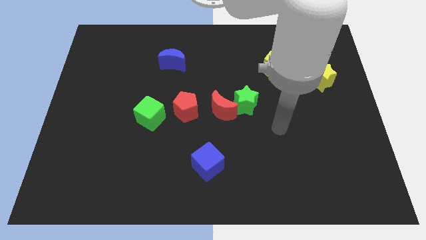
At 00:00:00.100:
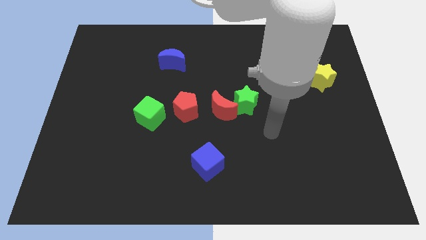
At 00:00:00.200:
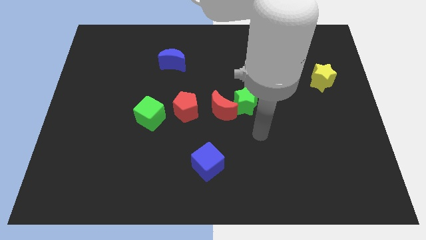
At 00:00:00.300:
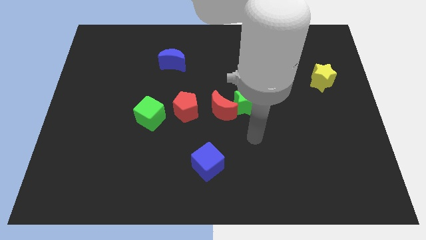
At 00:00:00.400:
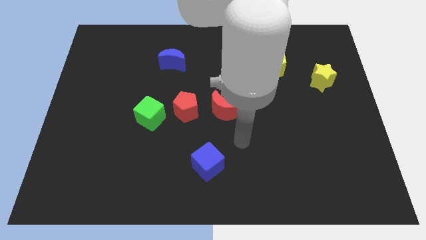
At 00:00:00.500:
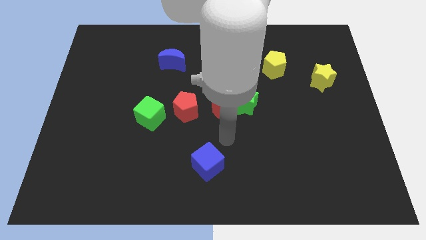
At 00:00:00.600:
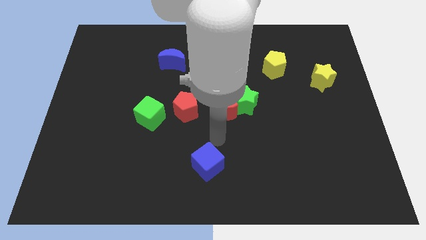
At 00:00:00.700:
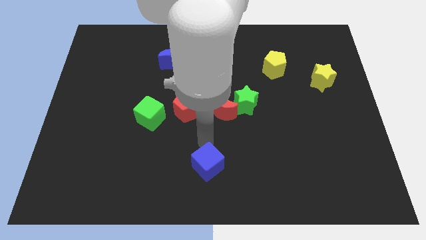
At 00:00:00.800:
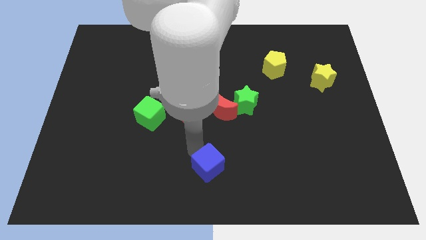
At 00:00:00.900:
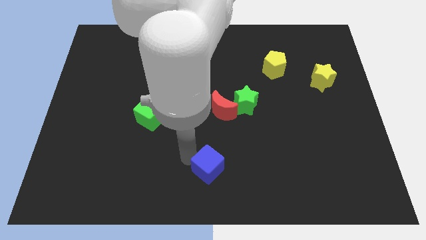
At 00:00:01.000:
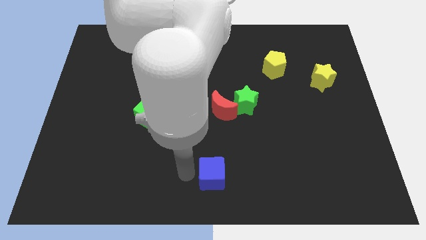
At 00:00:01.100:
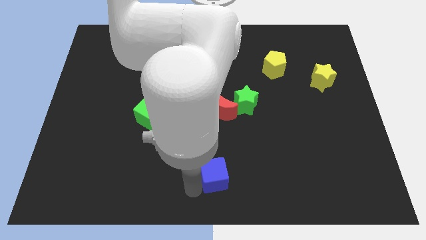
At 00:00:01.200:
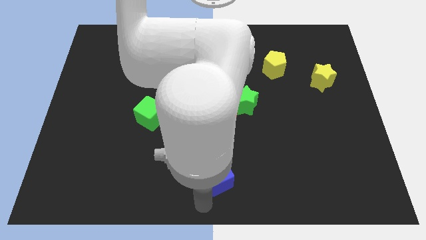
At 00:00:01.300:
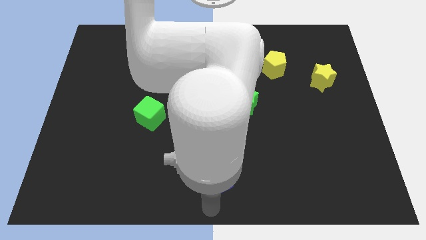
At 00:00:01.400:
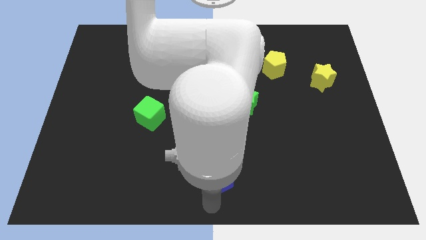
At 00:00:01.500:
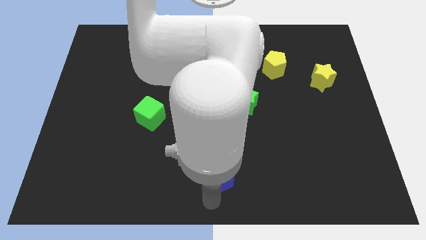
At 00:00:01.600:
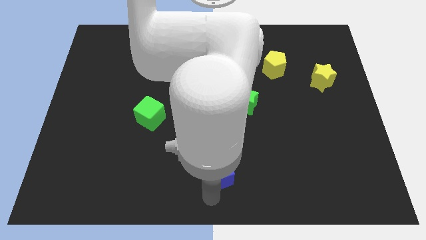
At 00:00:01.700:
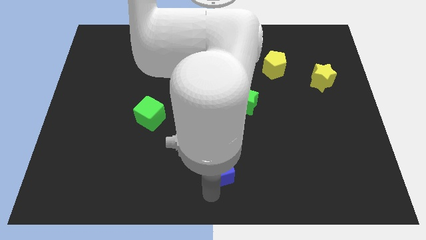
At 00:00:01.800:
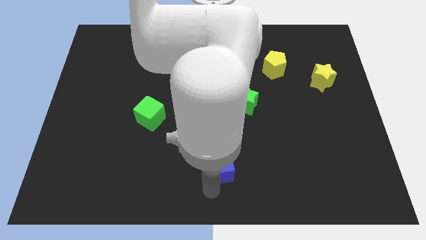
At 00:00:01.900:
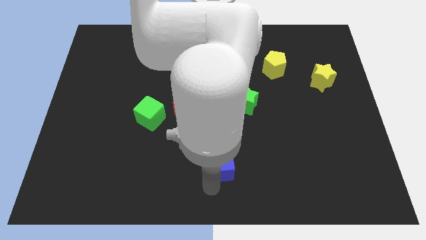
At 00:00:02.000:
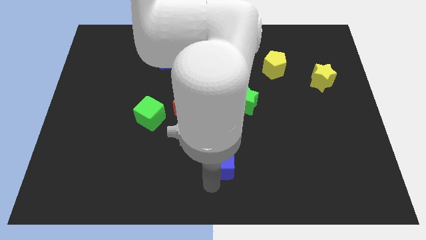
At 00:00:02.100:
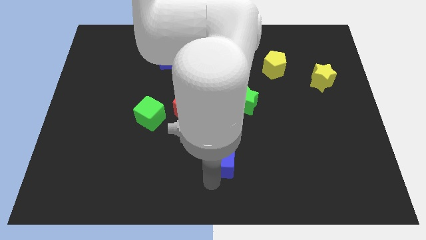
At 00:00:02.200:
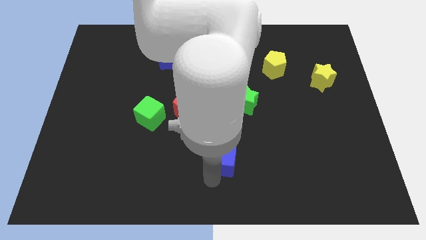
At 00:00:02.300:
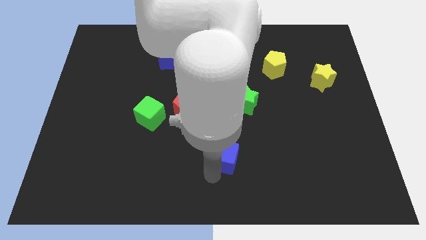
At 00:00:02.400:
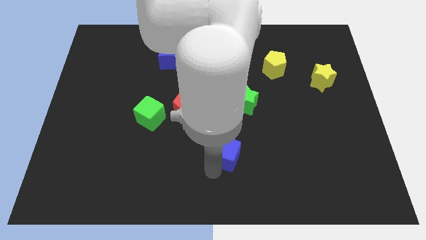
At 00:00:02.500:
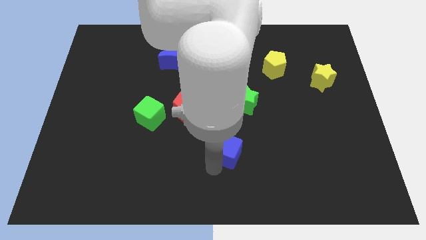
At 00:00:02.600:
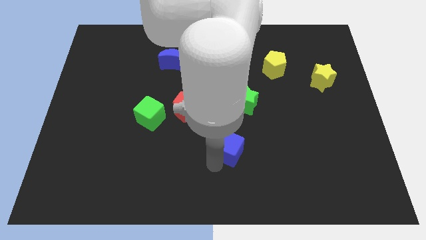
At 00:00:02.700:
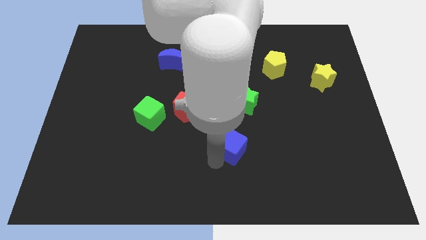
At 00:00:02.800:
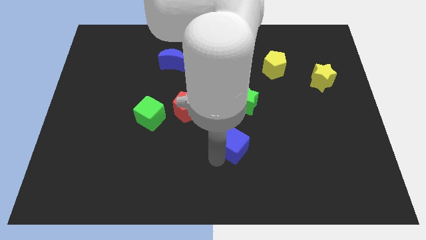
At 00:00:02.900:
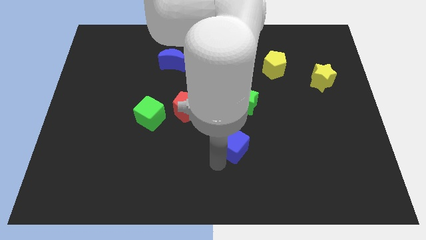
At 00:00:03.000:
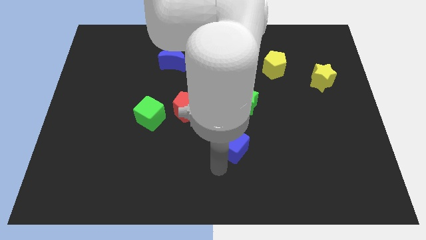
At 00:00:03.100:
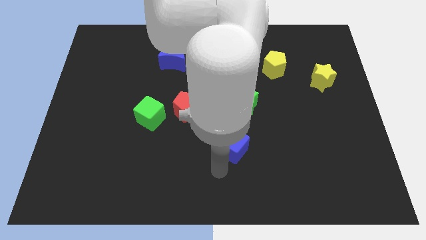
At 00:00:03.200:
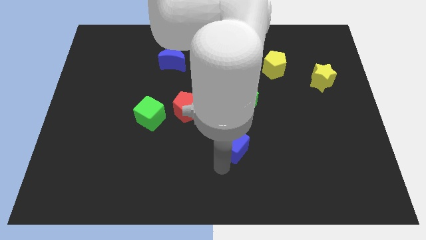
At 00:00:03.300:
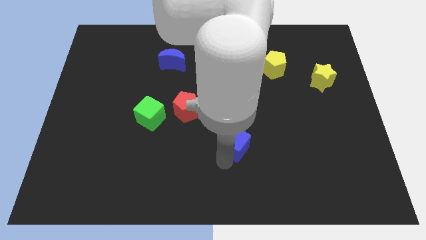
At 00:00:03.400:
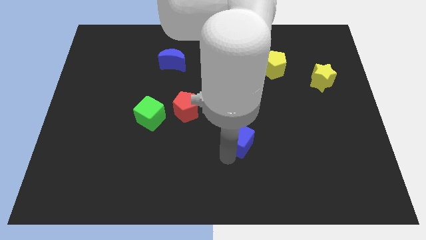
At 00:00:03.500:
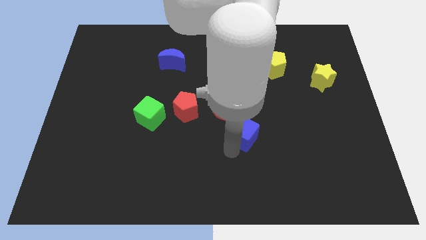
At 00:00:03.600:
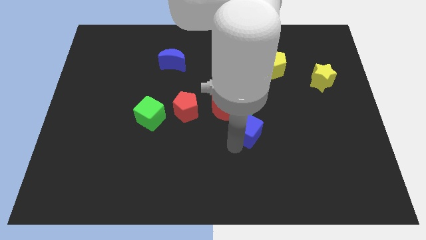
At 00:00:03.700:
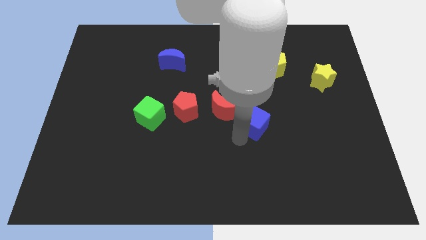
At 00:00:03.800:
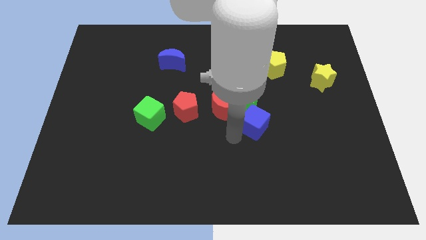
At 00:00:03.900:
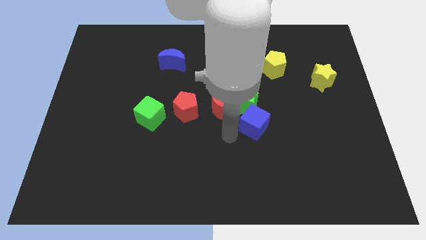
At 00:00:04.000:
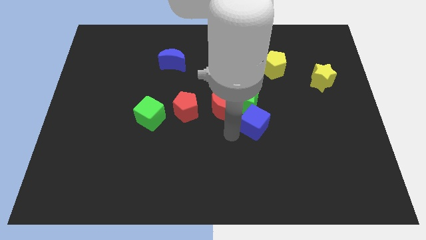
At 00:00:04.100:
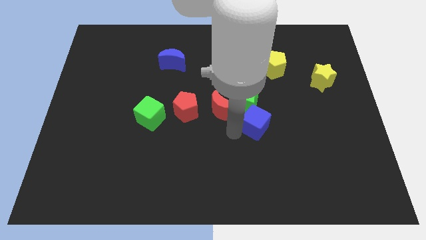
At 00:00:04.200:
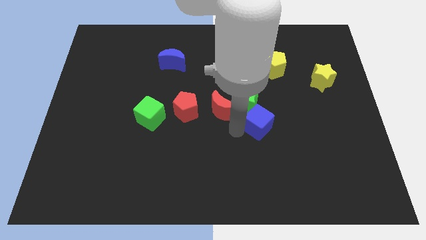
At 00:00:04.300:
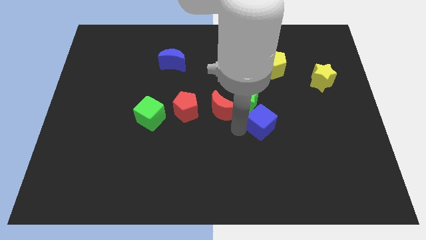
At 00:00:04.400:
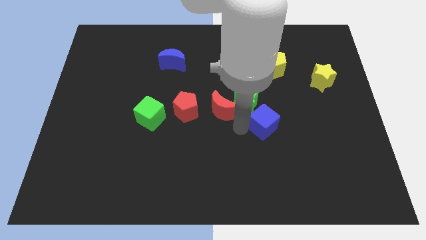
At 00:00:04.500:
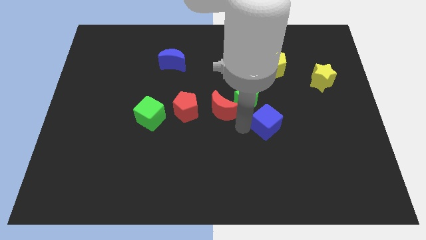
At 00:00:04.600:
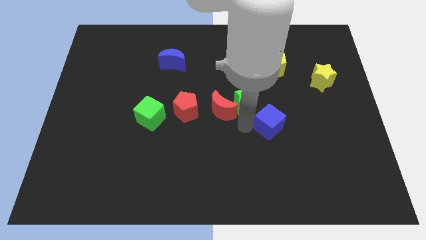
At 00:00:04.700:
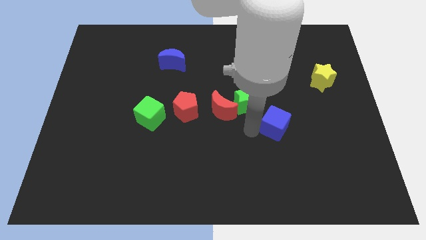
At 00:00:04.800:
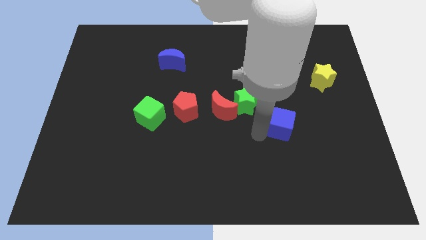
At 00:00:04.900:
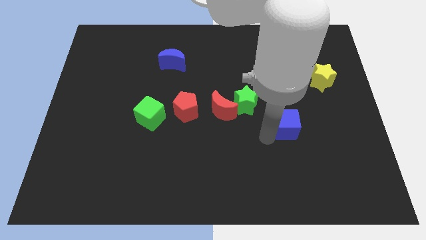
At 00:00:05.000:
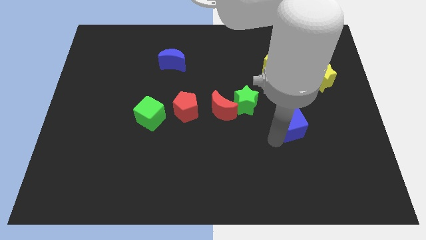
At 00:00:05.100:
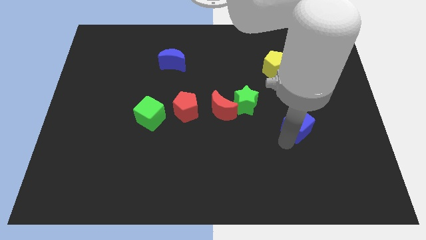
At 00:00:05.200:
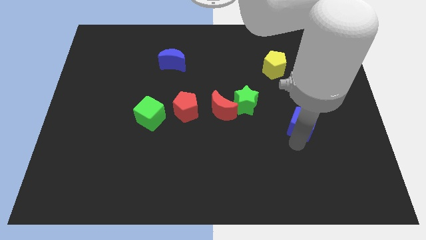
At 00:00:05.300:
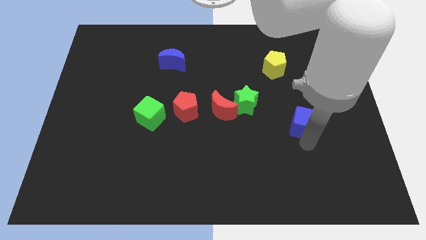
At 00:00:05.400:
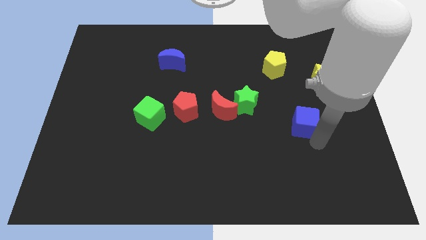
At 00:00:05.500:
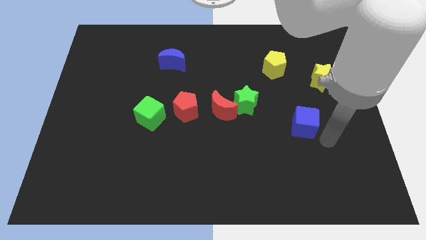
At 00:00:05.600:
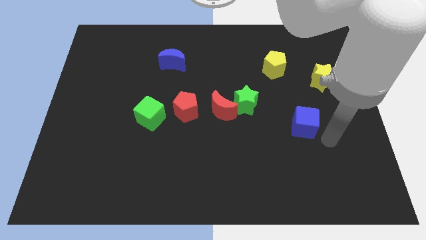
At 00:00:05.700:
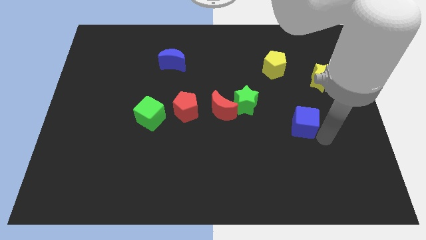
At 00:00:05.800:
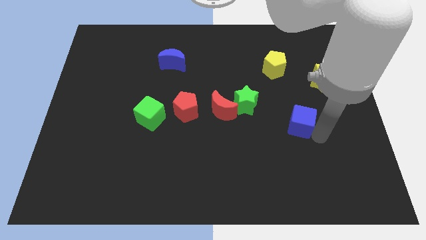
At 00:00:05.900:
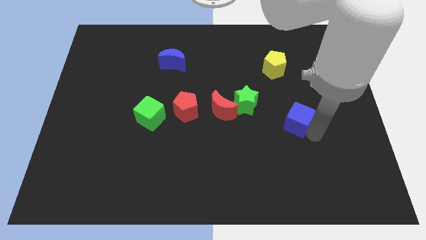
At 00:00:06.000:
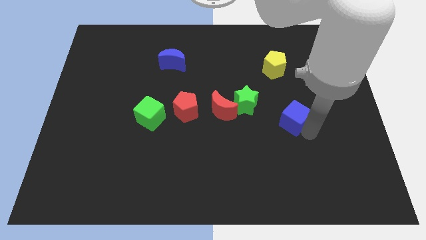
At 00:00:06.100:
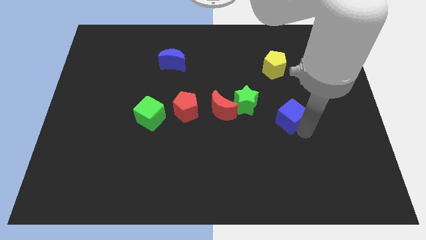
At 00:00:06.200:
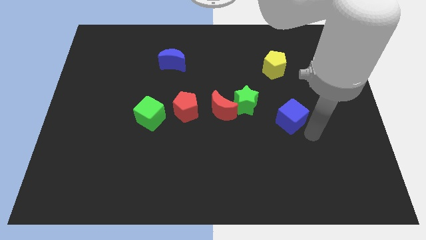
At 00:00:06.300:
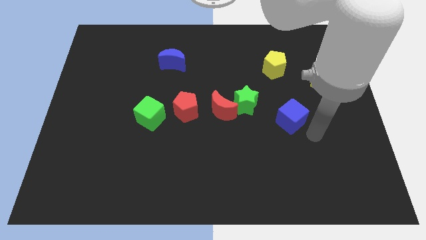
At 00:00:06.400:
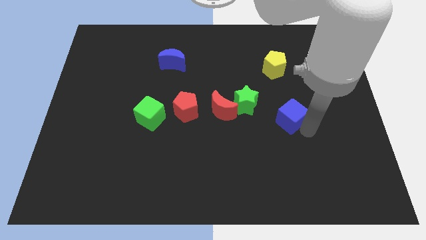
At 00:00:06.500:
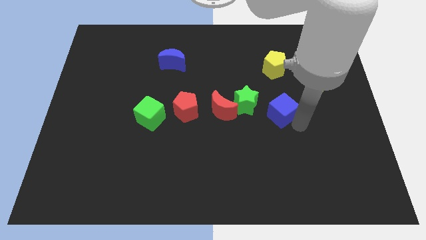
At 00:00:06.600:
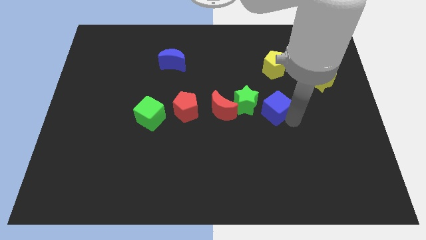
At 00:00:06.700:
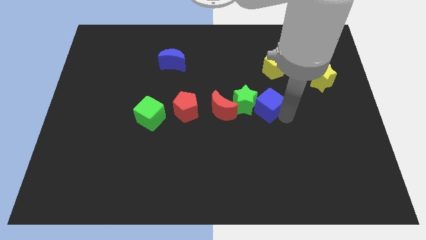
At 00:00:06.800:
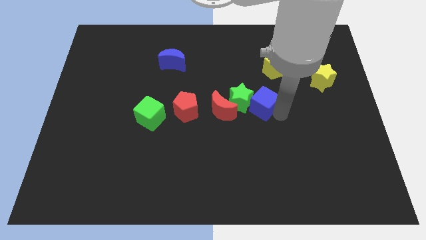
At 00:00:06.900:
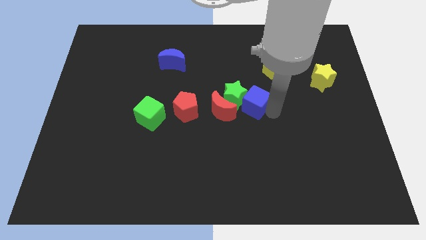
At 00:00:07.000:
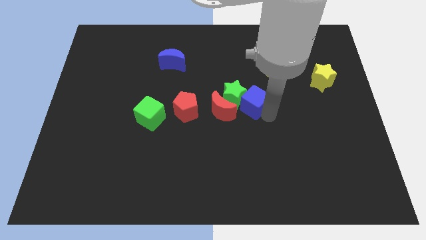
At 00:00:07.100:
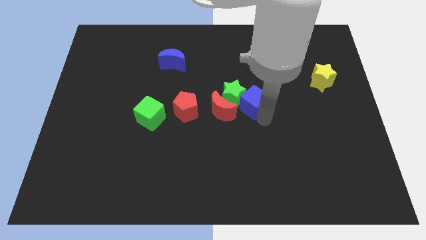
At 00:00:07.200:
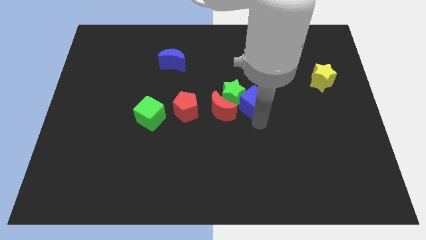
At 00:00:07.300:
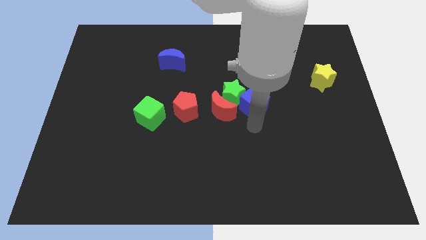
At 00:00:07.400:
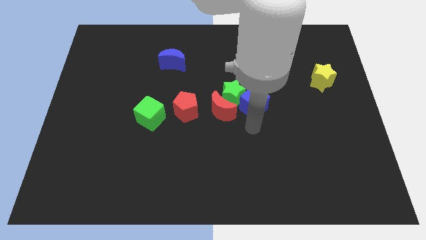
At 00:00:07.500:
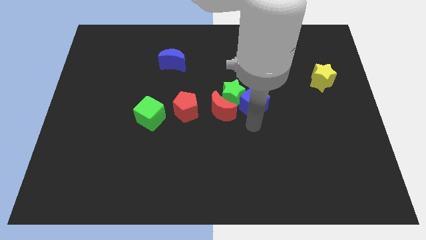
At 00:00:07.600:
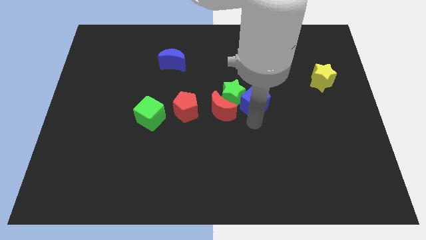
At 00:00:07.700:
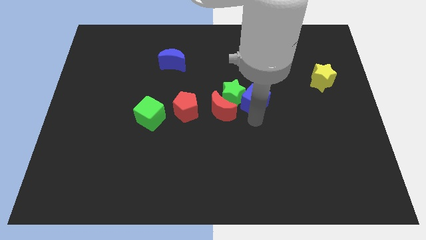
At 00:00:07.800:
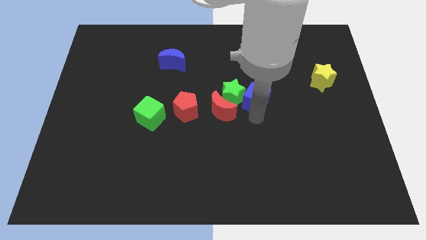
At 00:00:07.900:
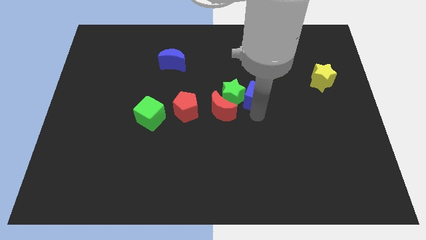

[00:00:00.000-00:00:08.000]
slide the blue cube to the bottom left of the yellow pentagon
